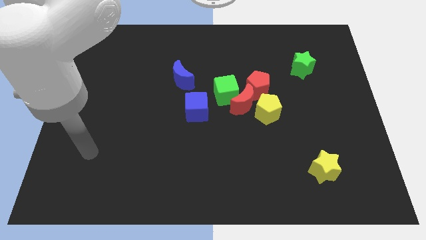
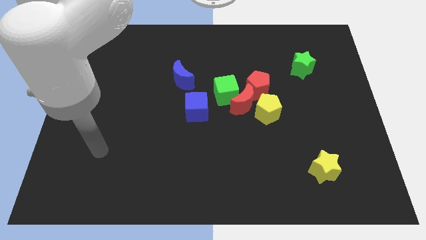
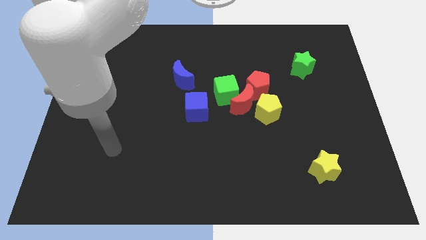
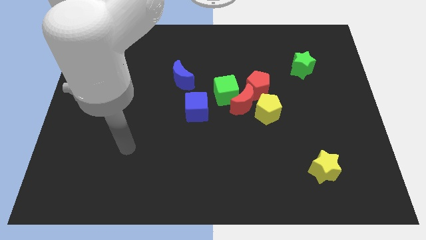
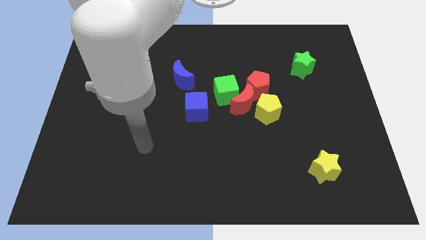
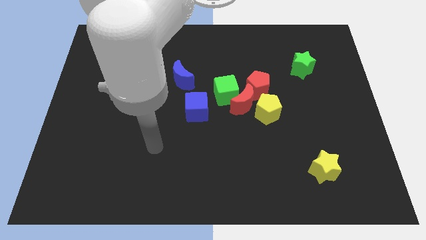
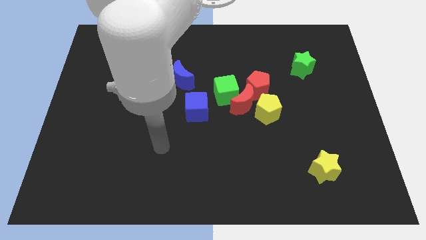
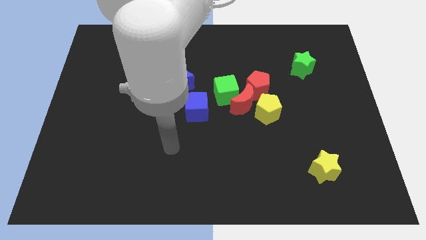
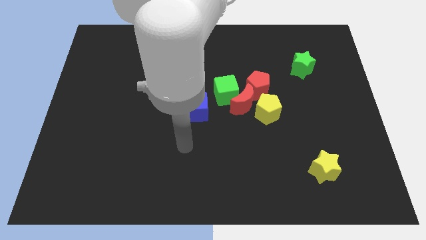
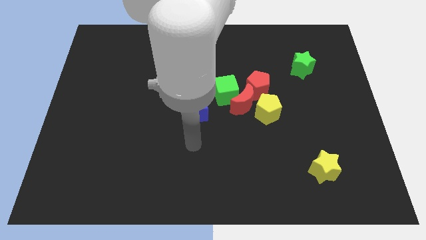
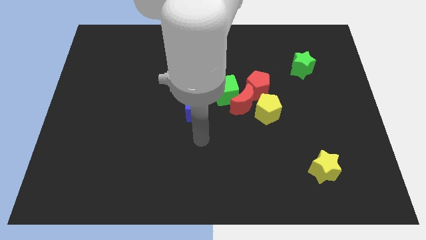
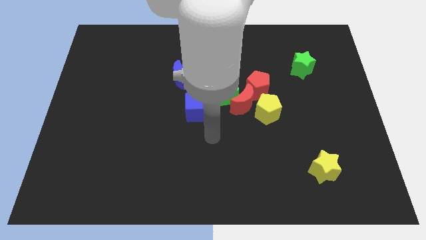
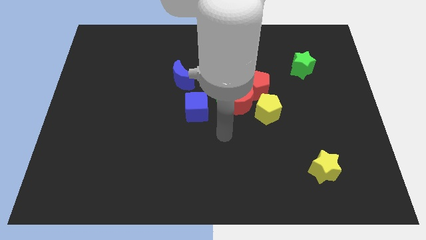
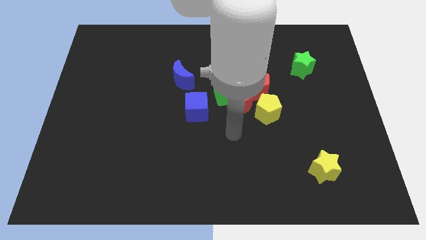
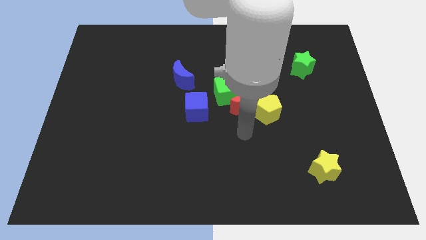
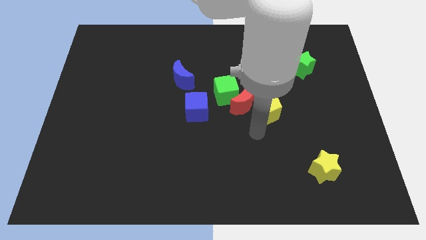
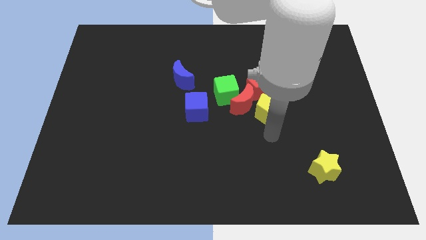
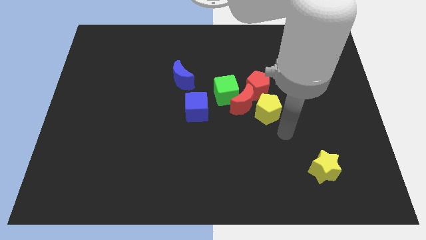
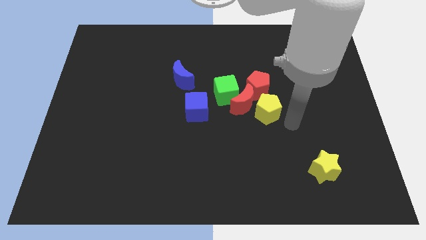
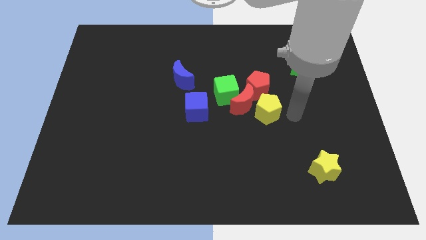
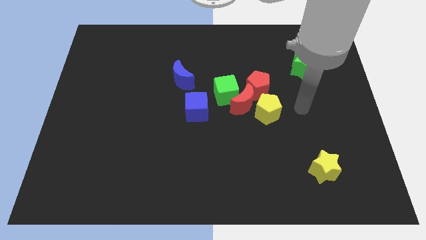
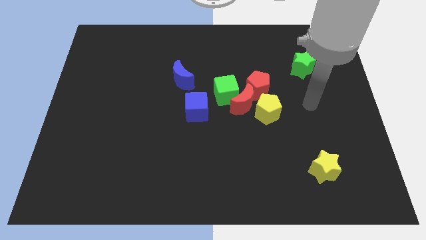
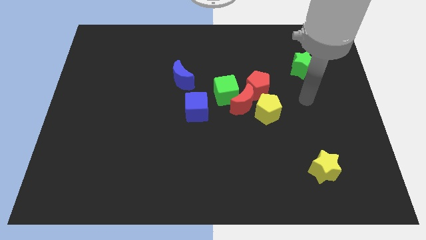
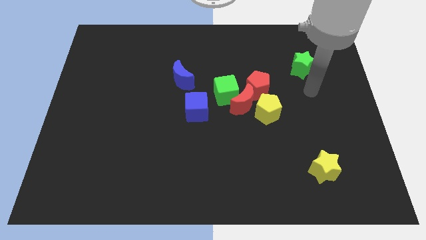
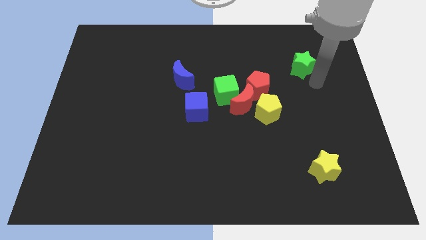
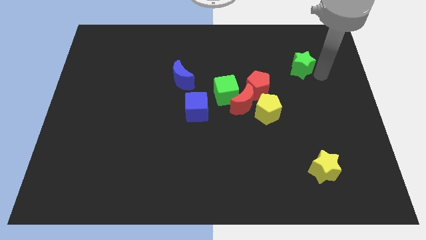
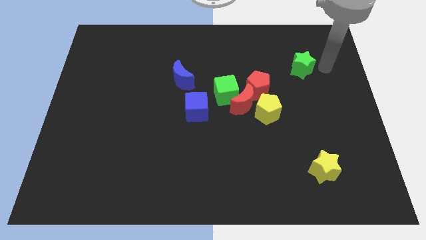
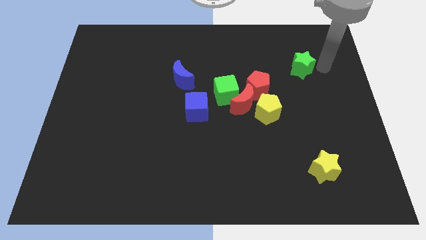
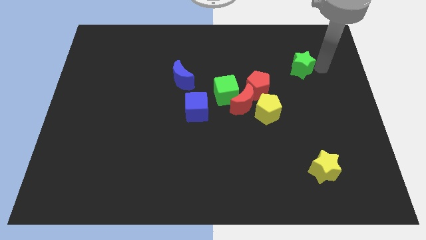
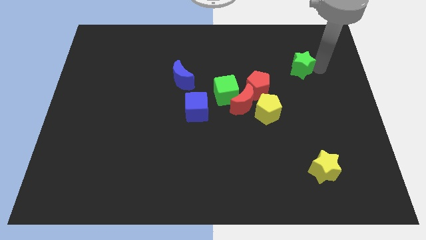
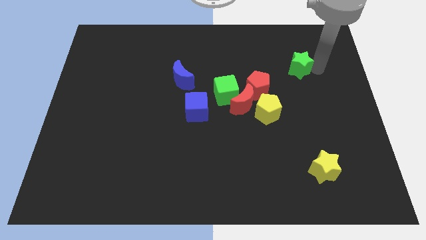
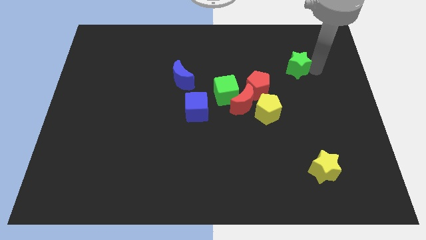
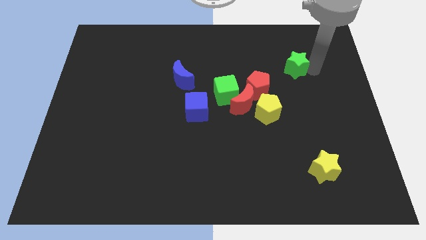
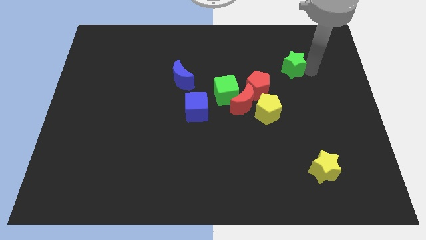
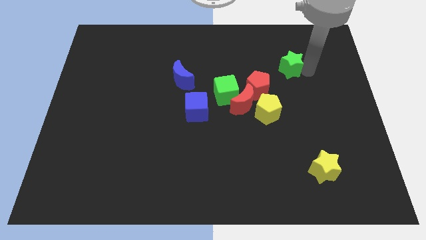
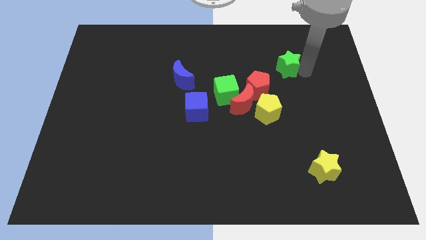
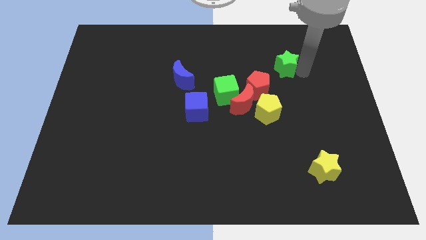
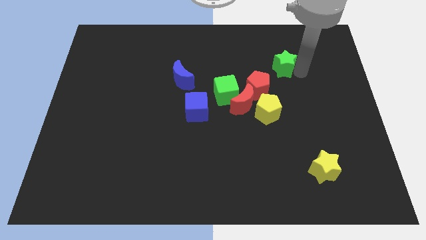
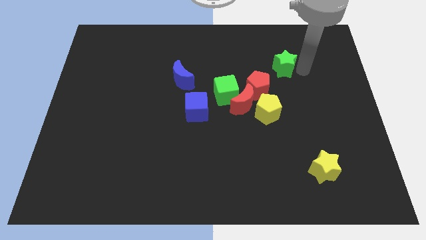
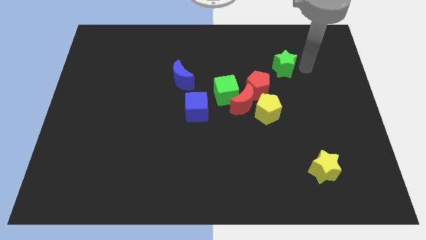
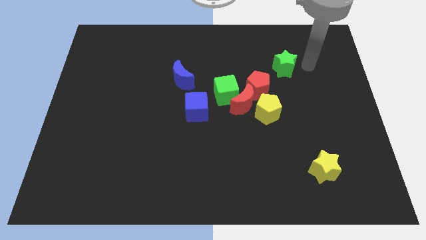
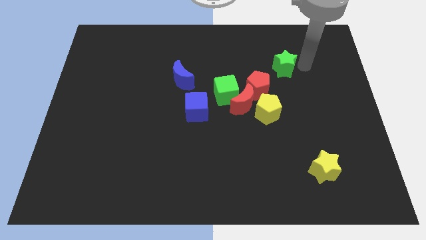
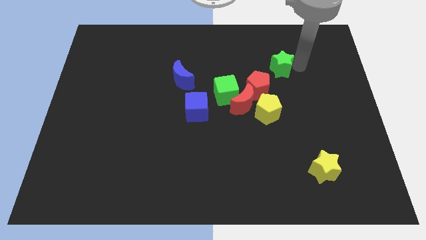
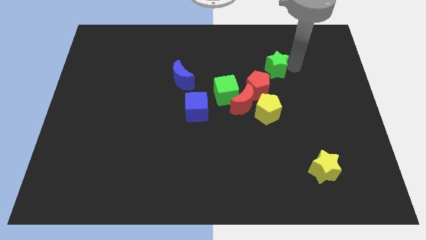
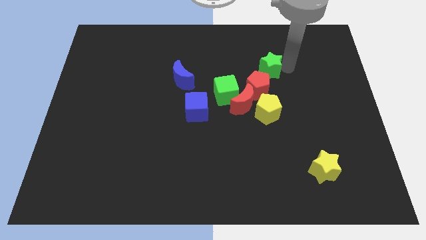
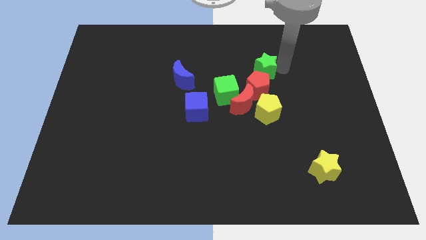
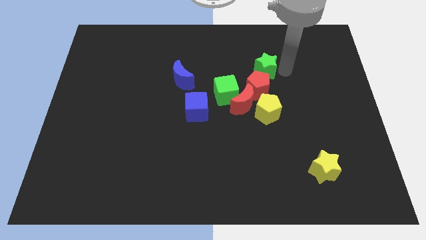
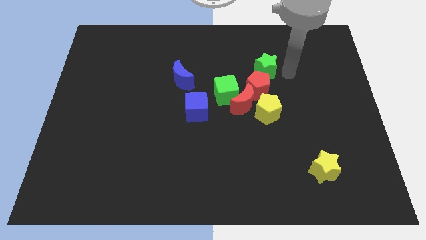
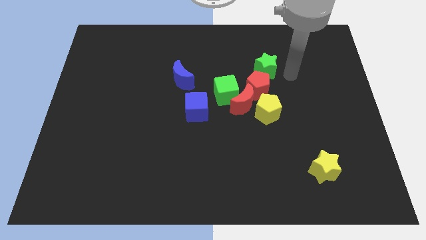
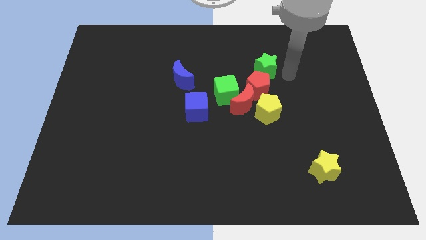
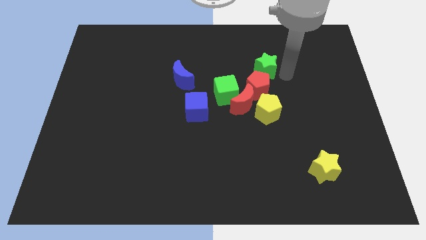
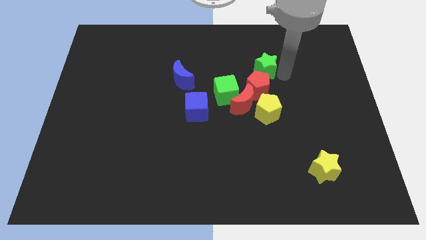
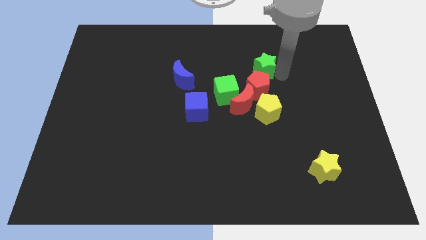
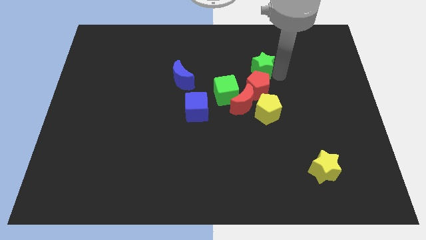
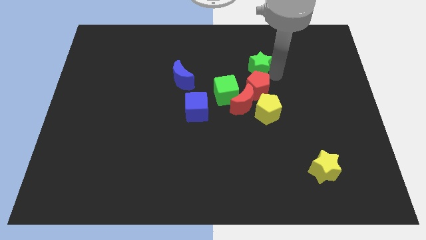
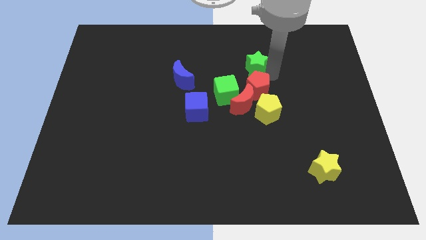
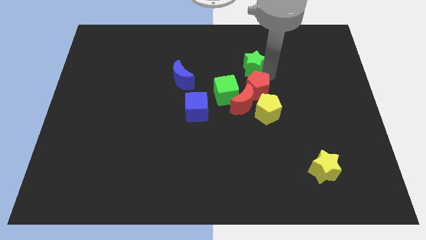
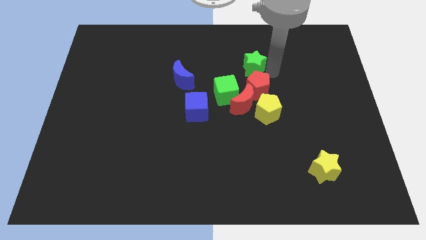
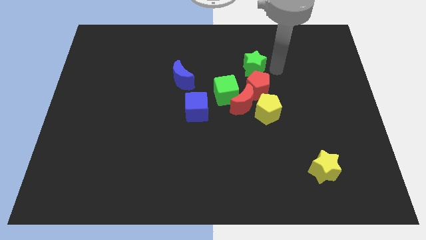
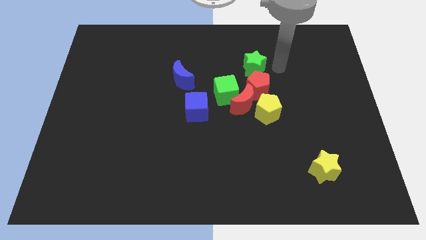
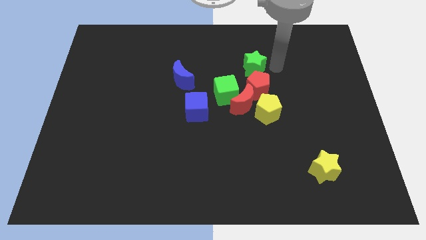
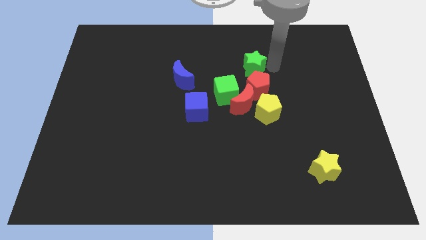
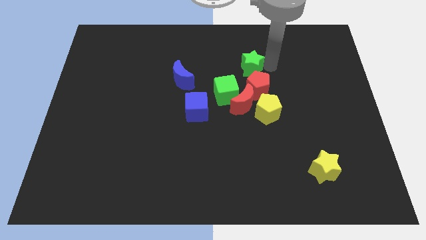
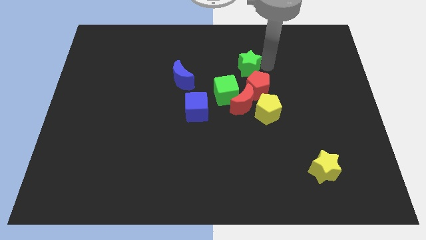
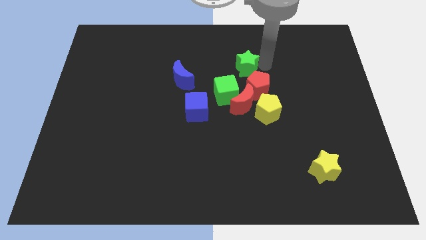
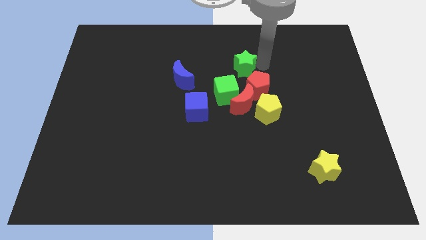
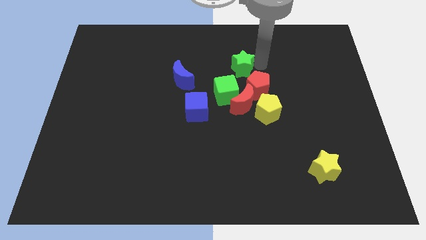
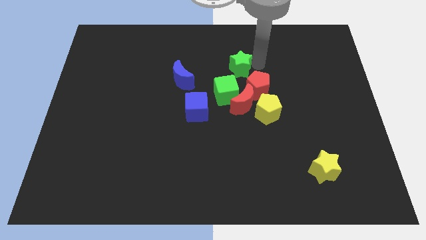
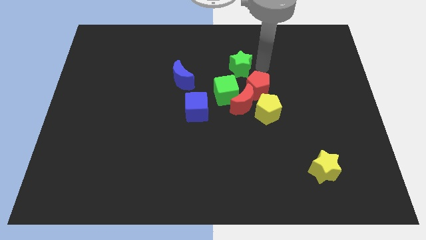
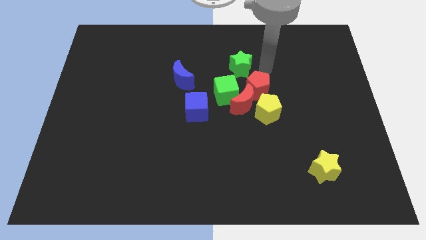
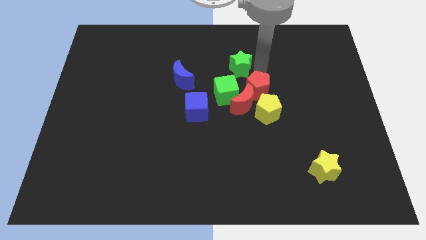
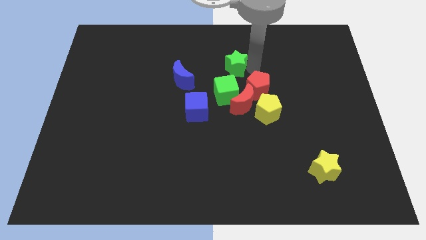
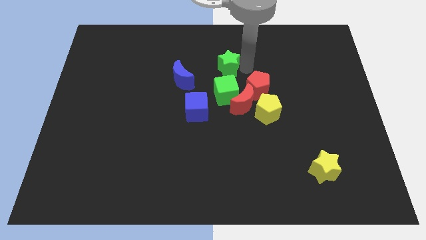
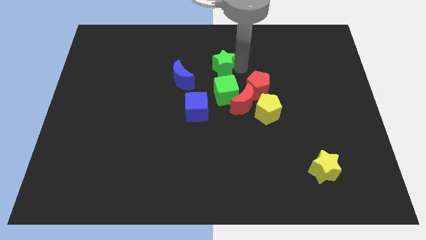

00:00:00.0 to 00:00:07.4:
move the green star to the left

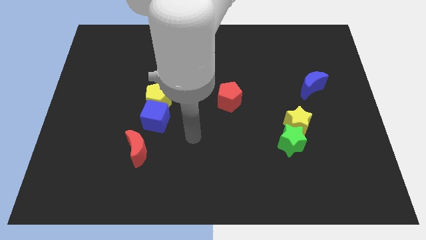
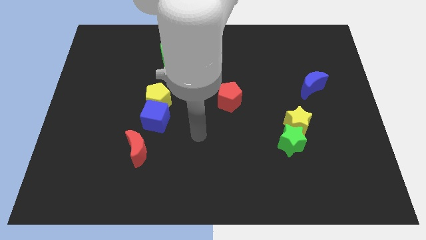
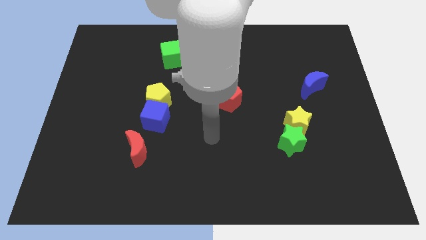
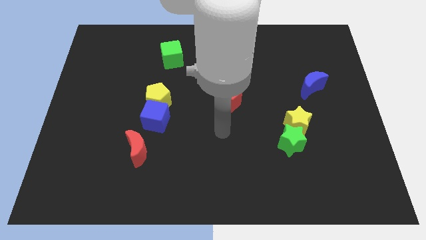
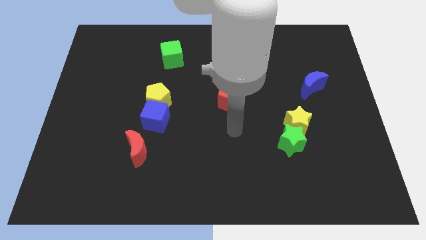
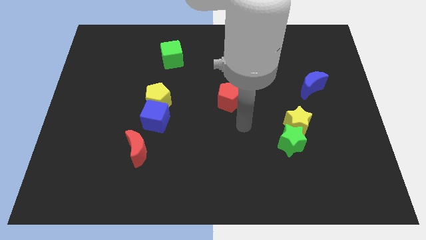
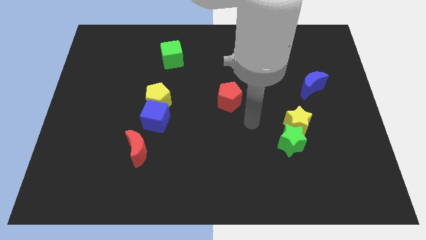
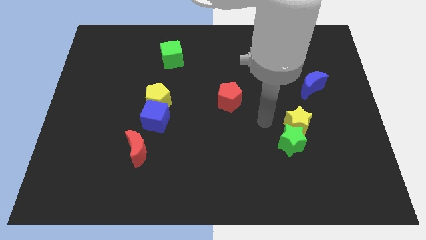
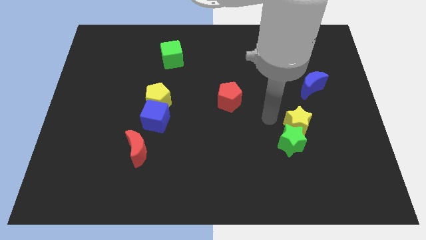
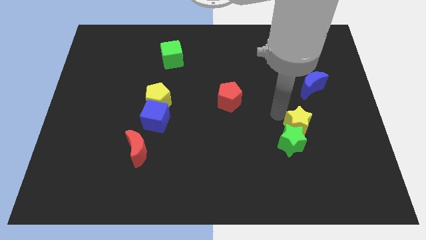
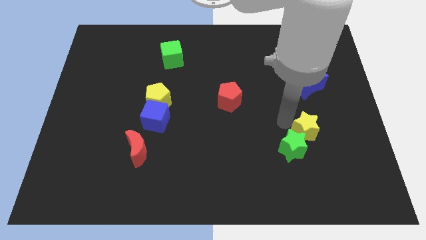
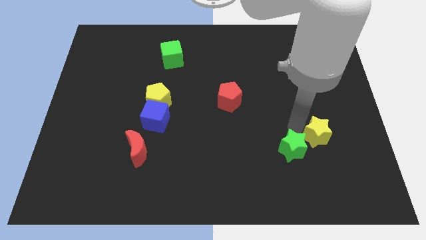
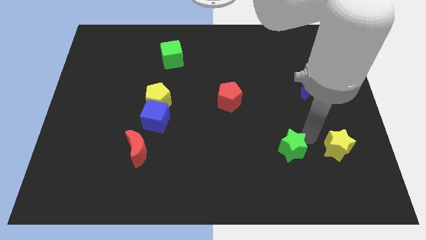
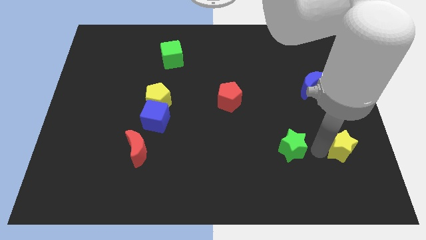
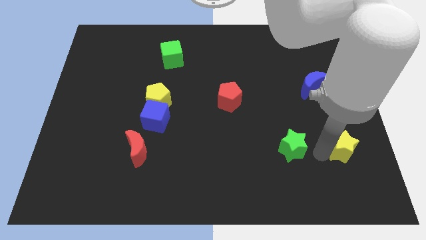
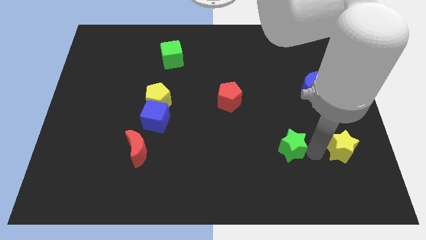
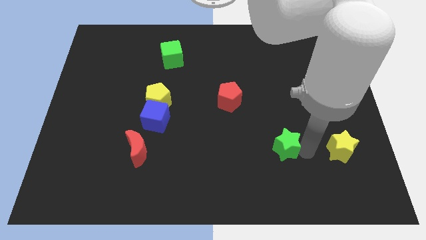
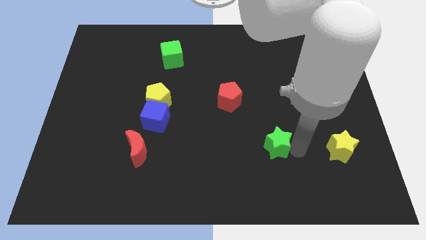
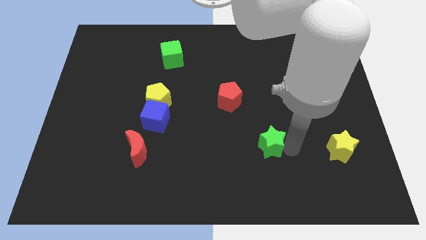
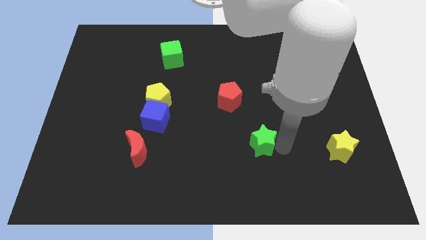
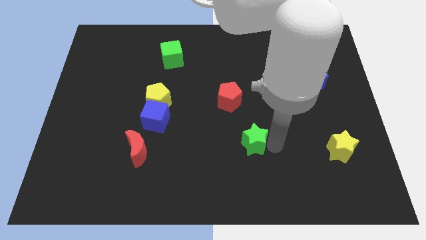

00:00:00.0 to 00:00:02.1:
slide the green star left a bit
